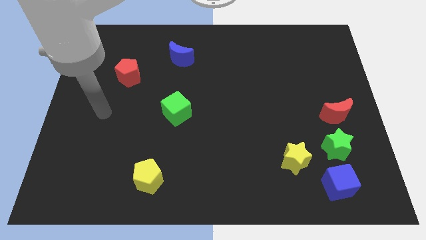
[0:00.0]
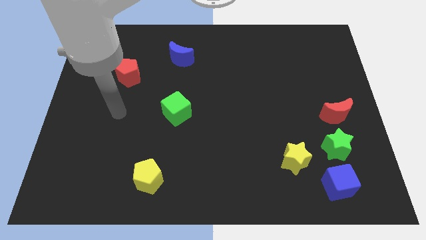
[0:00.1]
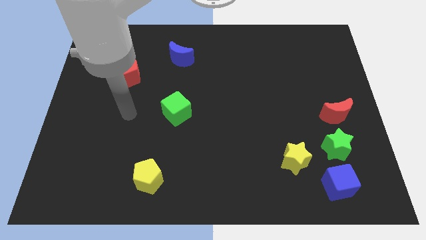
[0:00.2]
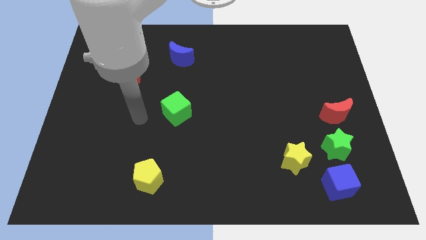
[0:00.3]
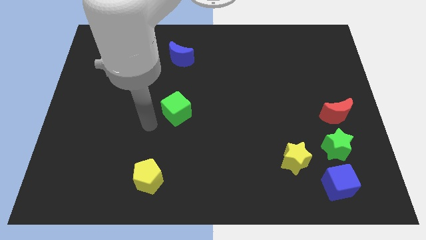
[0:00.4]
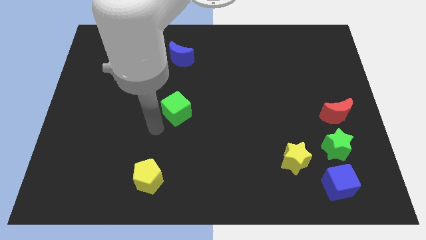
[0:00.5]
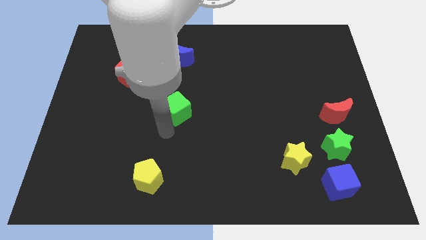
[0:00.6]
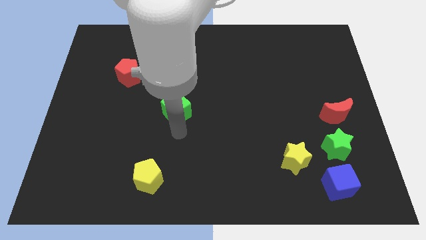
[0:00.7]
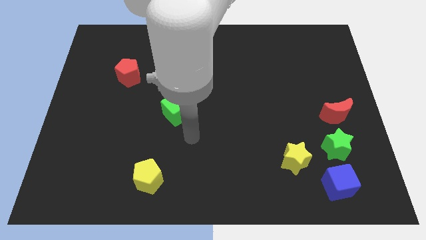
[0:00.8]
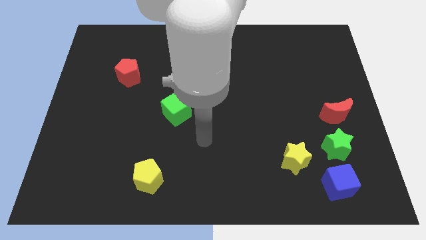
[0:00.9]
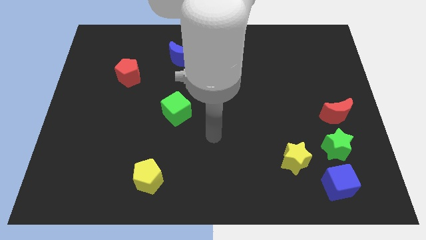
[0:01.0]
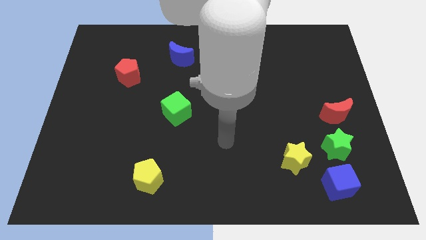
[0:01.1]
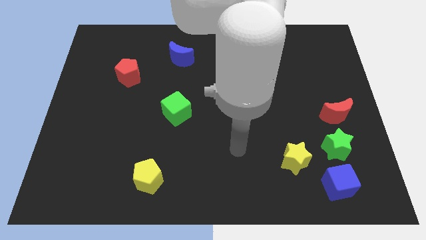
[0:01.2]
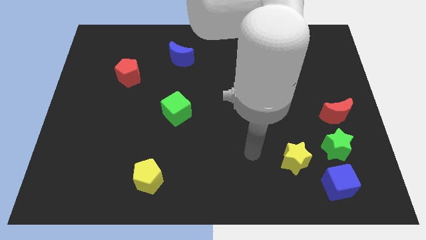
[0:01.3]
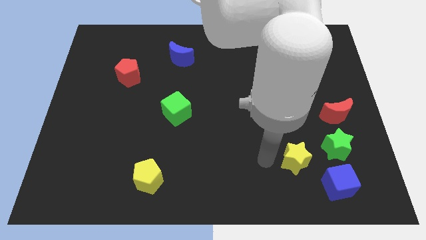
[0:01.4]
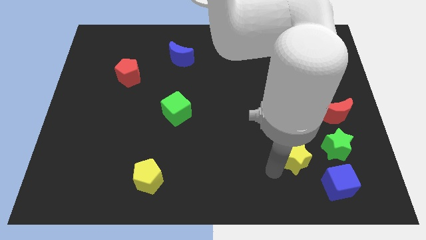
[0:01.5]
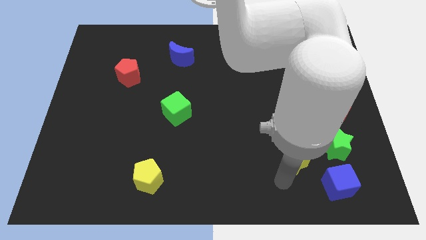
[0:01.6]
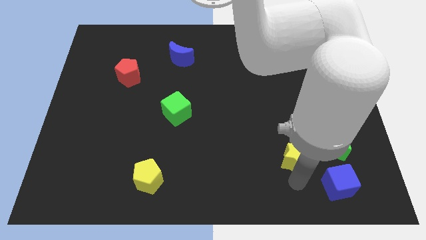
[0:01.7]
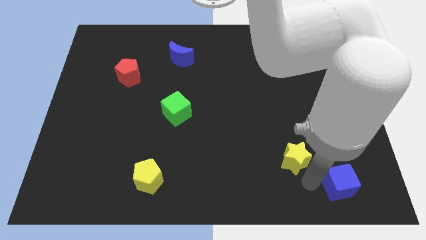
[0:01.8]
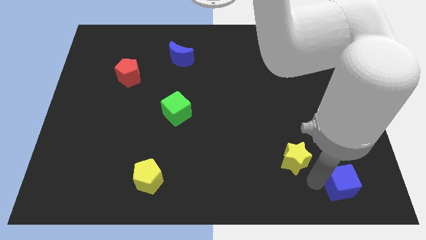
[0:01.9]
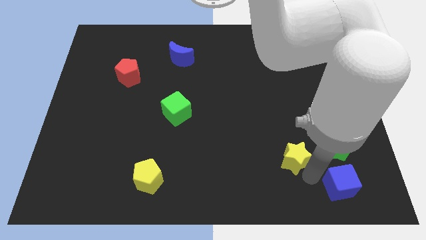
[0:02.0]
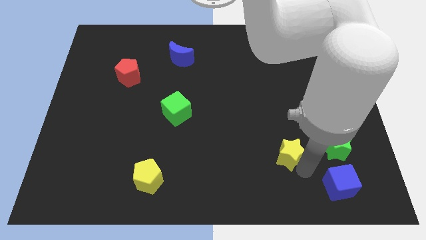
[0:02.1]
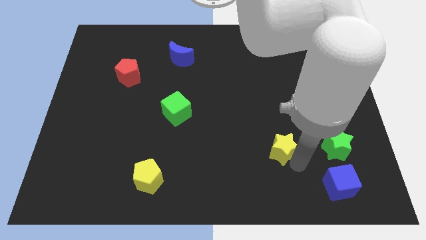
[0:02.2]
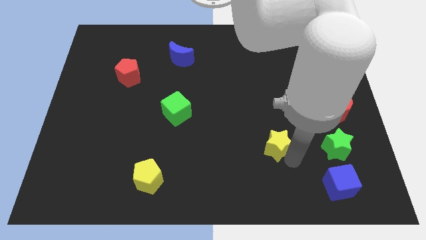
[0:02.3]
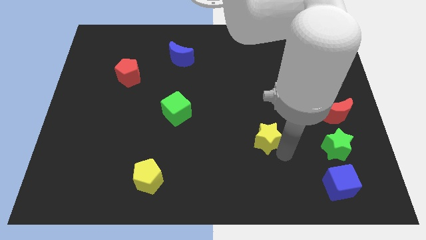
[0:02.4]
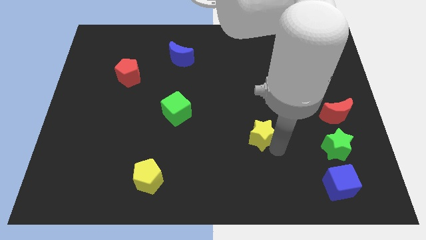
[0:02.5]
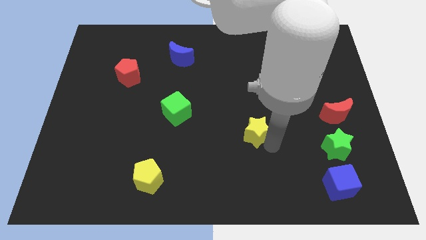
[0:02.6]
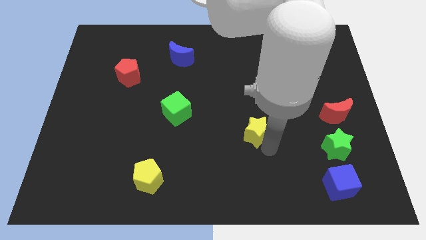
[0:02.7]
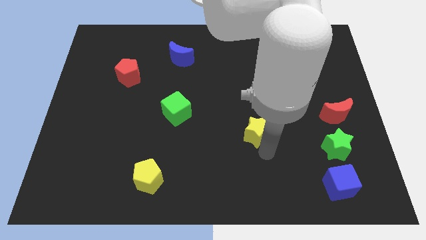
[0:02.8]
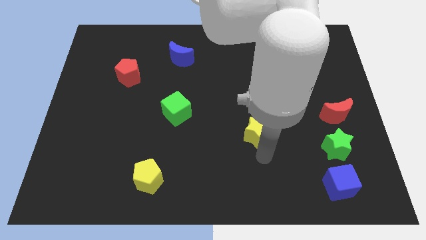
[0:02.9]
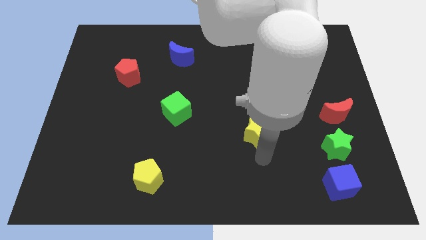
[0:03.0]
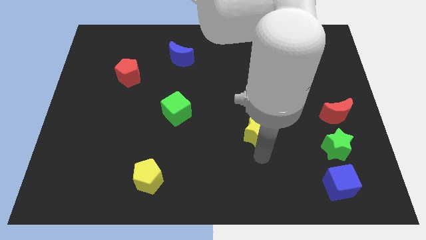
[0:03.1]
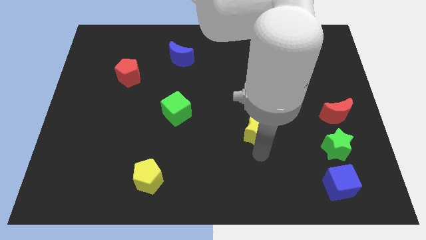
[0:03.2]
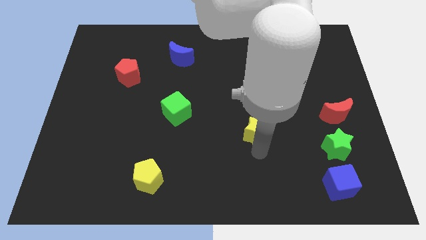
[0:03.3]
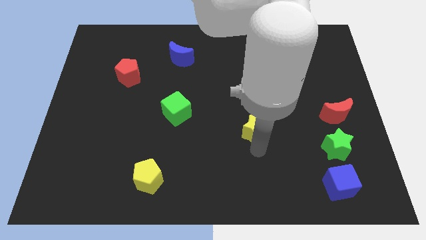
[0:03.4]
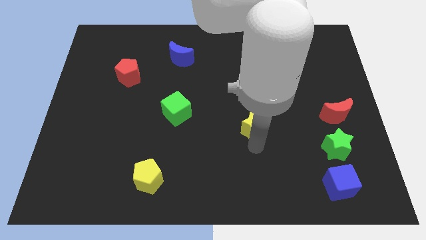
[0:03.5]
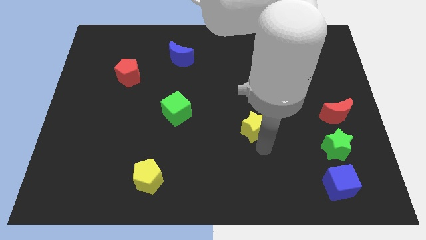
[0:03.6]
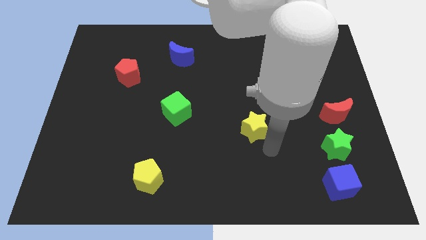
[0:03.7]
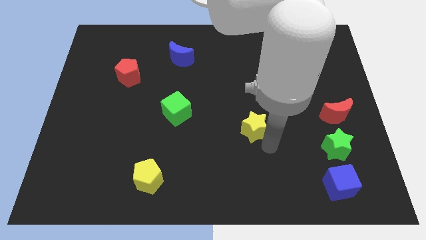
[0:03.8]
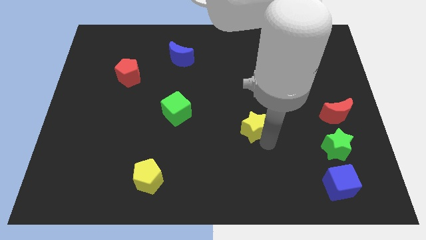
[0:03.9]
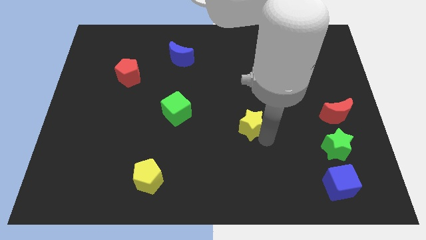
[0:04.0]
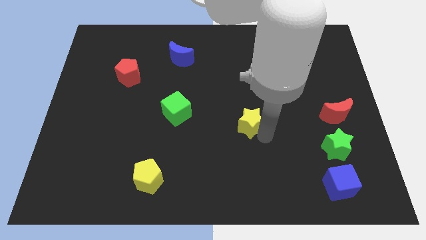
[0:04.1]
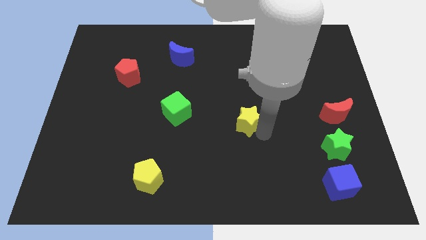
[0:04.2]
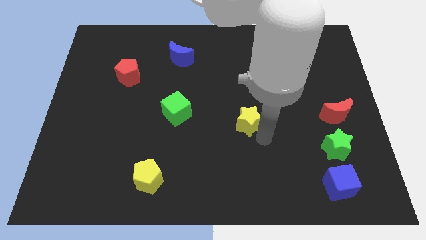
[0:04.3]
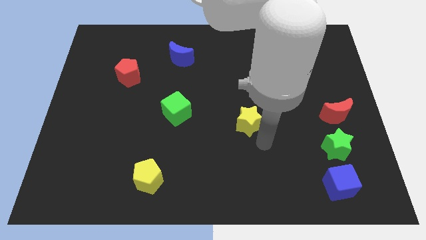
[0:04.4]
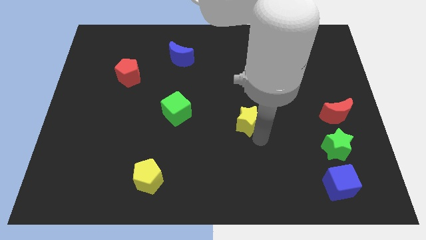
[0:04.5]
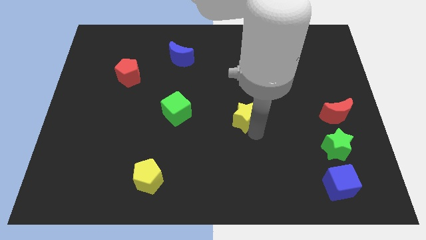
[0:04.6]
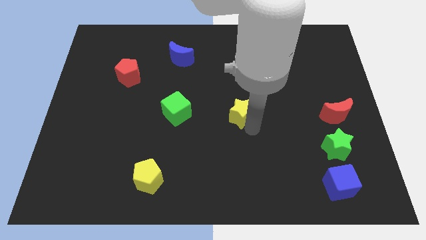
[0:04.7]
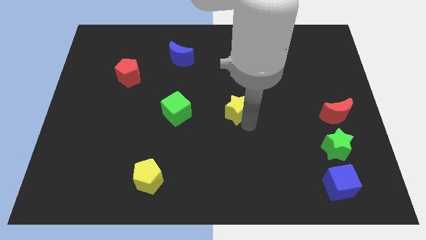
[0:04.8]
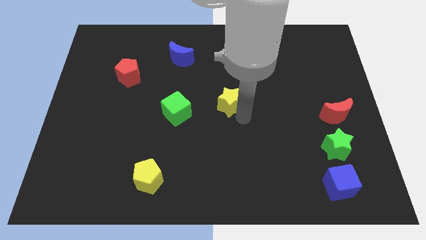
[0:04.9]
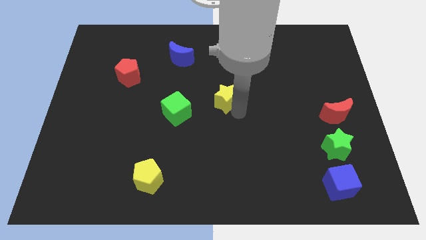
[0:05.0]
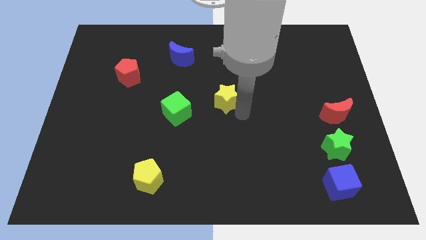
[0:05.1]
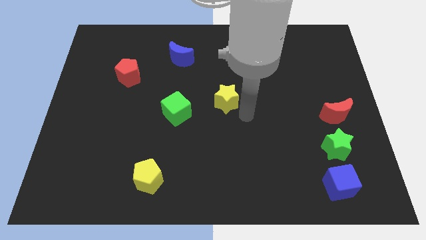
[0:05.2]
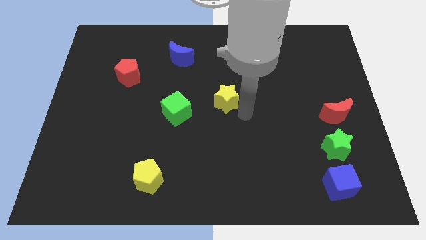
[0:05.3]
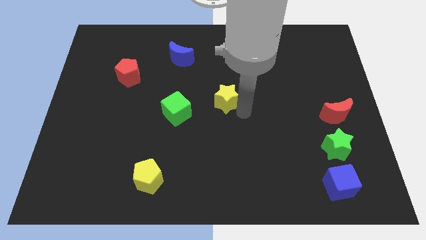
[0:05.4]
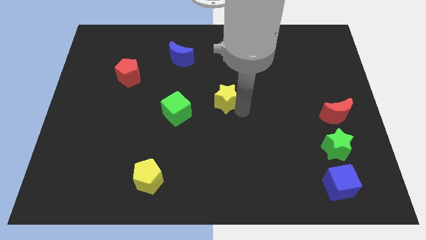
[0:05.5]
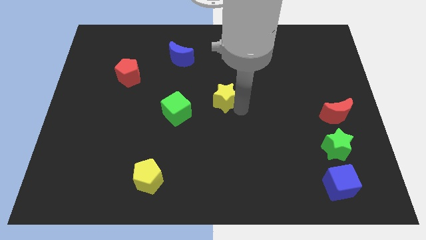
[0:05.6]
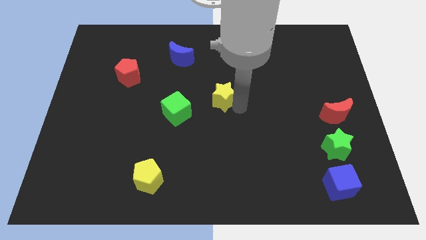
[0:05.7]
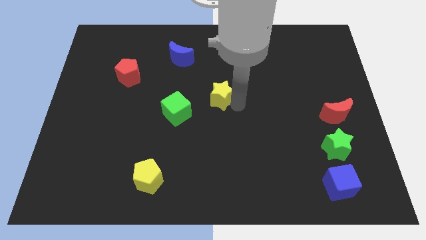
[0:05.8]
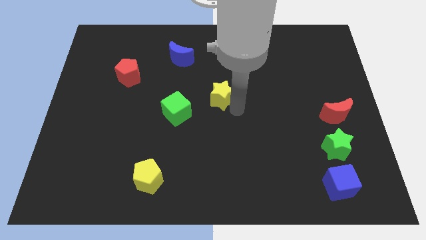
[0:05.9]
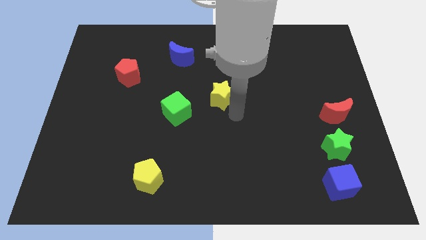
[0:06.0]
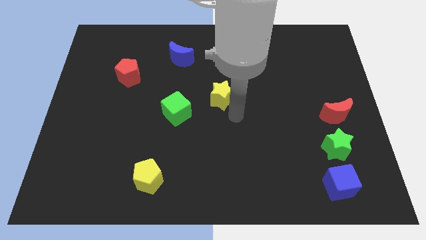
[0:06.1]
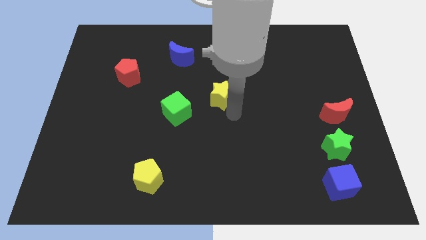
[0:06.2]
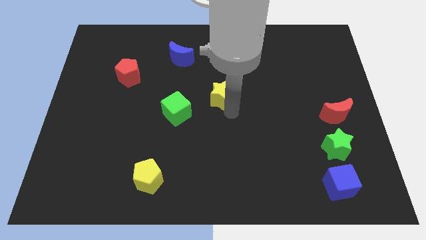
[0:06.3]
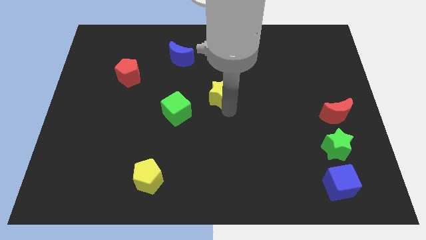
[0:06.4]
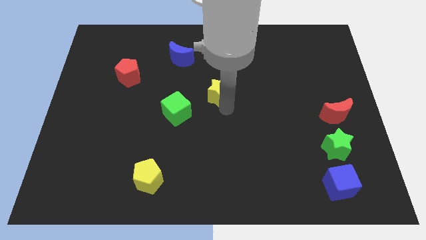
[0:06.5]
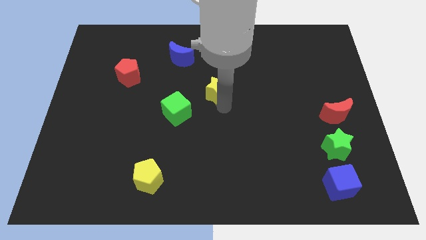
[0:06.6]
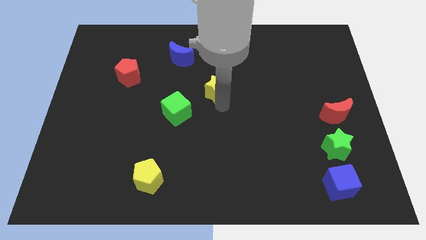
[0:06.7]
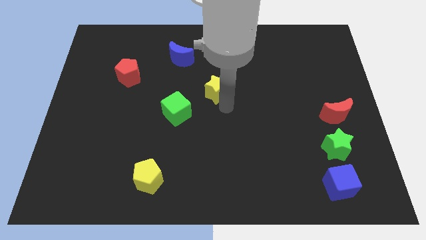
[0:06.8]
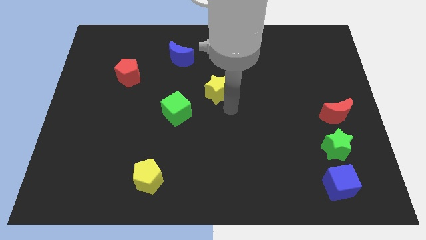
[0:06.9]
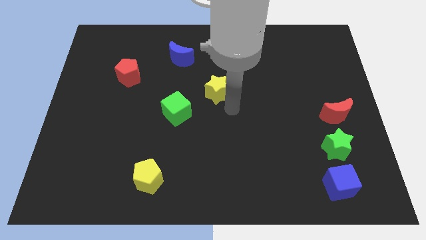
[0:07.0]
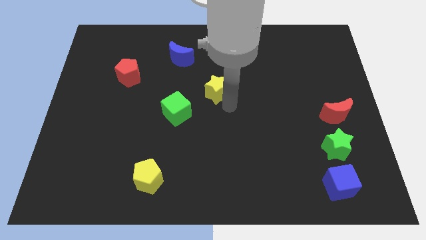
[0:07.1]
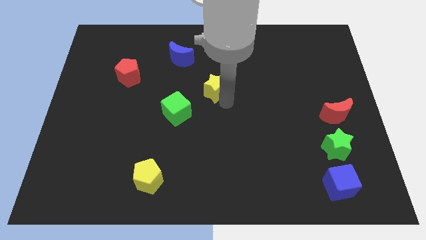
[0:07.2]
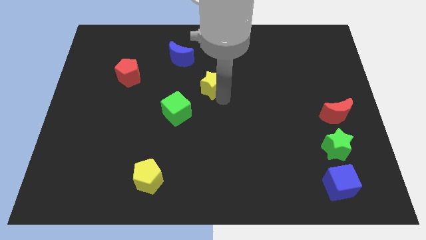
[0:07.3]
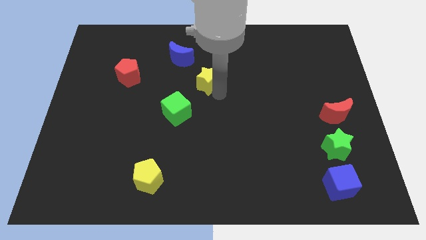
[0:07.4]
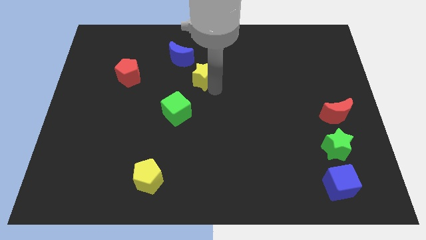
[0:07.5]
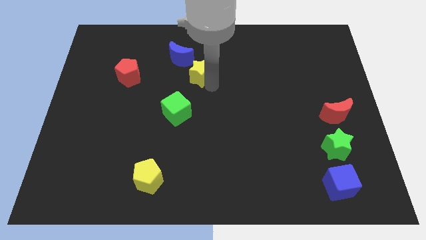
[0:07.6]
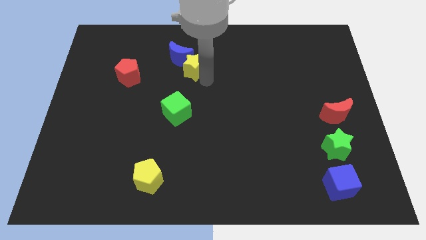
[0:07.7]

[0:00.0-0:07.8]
slide the yellow star to the blue moon
